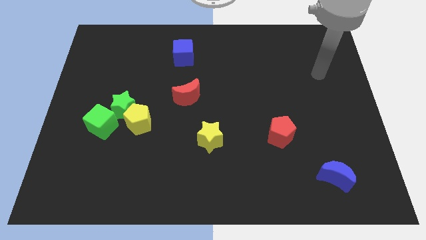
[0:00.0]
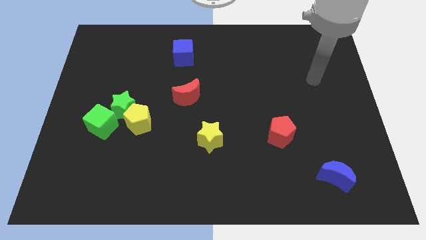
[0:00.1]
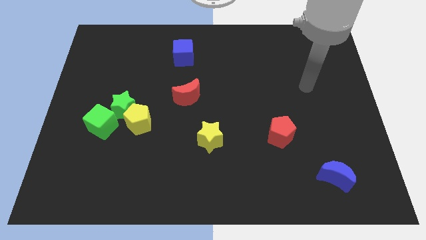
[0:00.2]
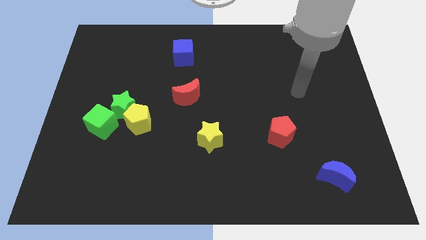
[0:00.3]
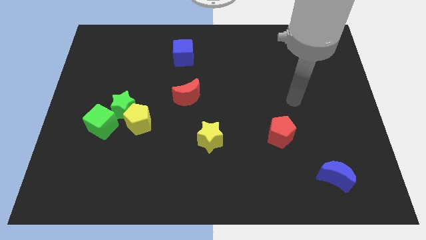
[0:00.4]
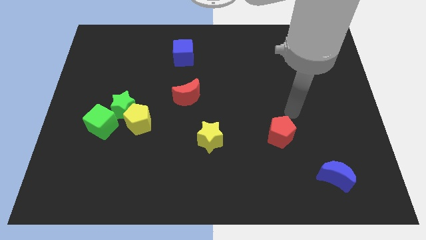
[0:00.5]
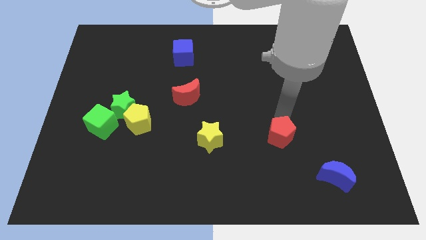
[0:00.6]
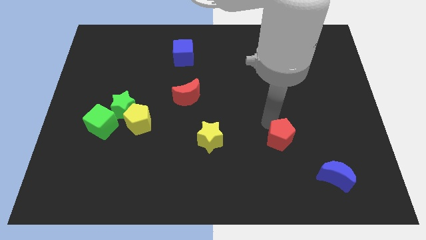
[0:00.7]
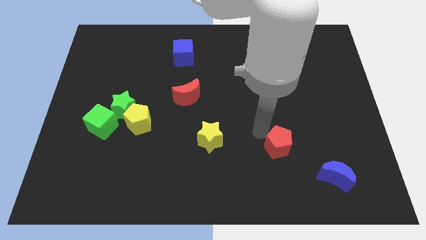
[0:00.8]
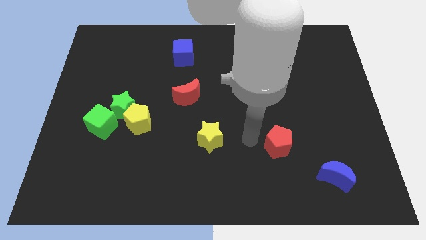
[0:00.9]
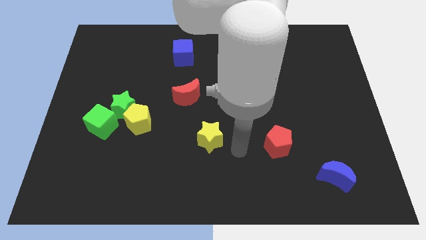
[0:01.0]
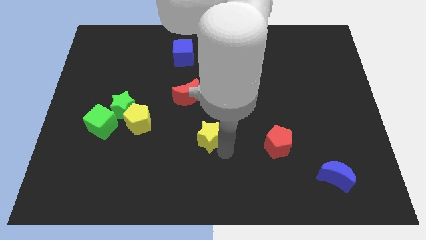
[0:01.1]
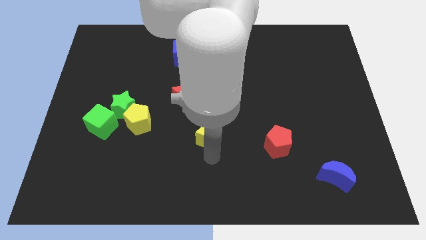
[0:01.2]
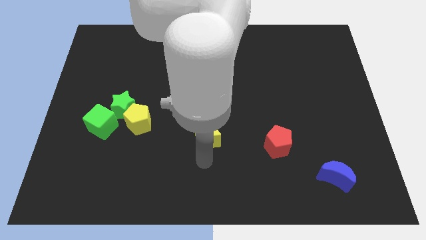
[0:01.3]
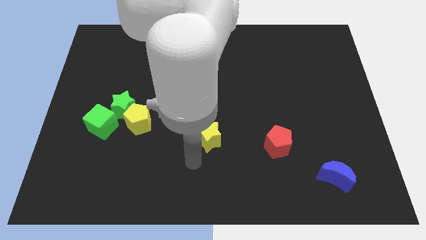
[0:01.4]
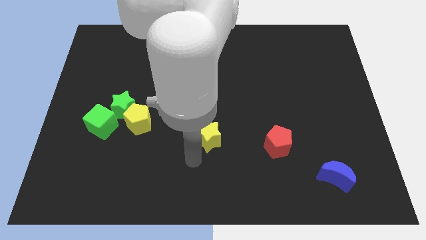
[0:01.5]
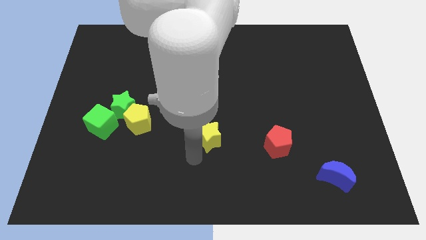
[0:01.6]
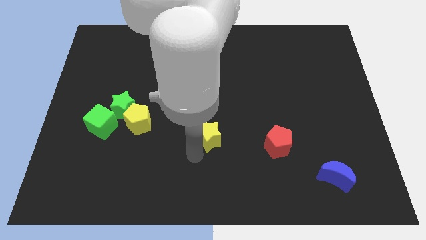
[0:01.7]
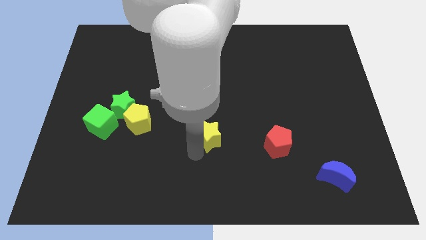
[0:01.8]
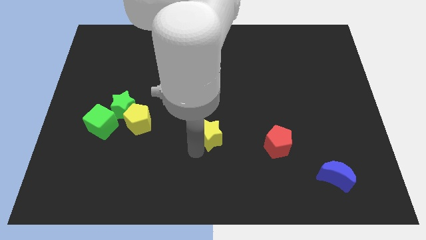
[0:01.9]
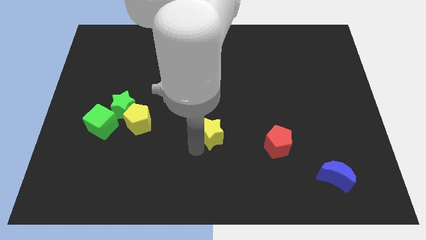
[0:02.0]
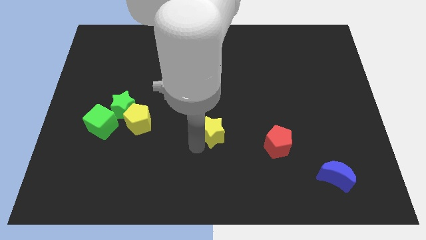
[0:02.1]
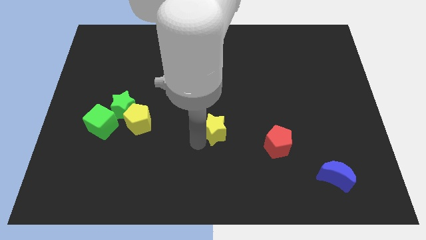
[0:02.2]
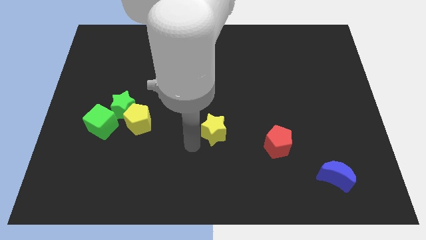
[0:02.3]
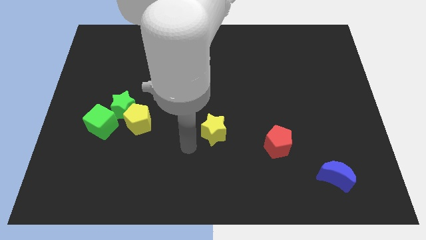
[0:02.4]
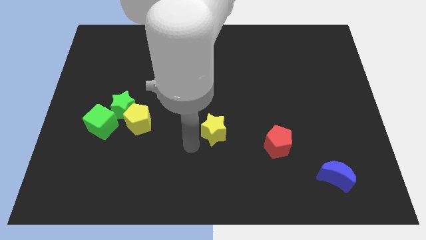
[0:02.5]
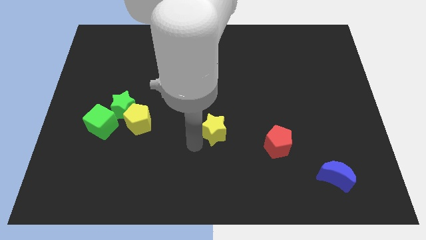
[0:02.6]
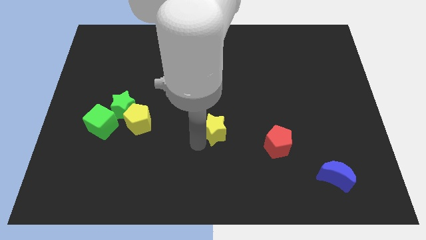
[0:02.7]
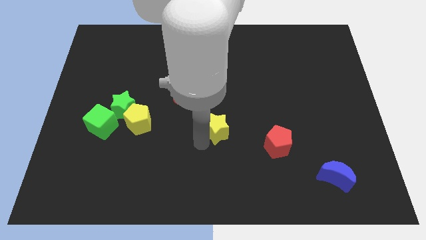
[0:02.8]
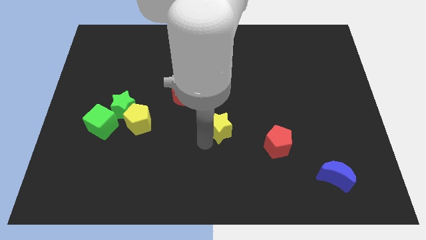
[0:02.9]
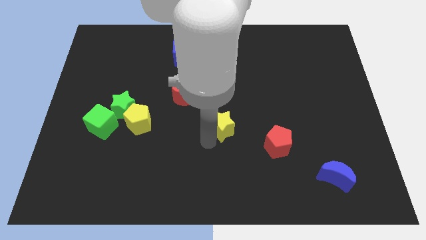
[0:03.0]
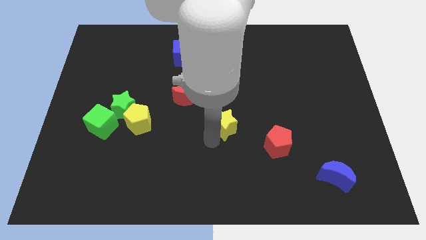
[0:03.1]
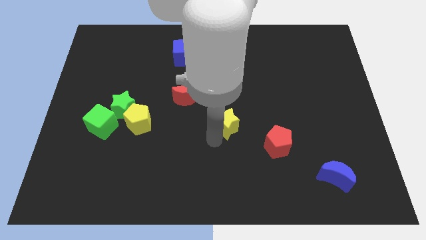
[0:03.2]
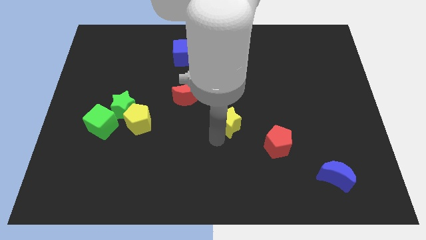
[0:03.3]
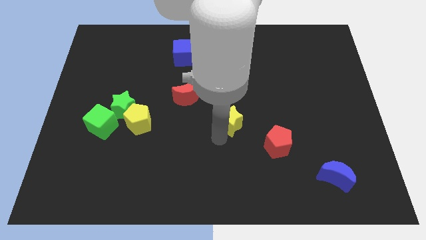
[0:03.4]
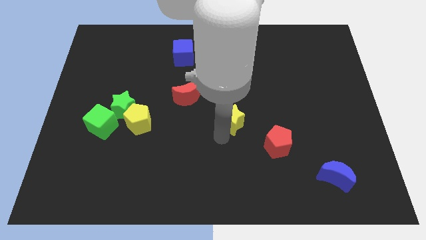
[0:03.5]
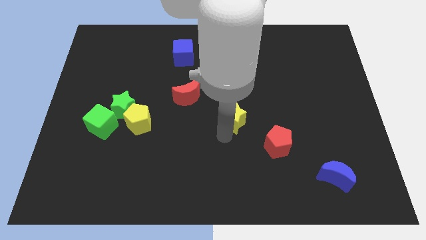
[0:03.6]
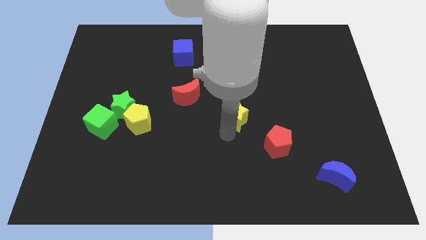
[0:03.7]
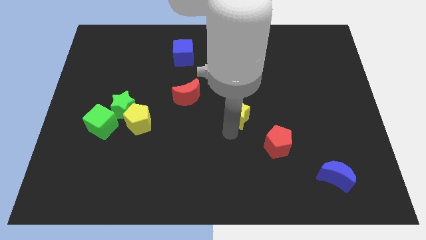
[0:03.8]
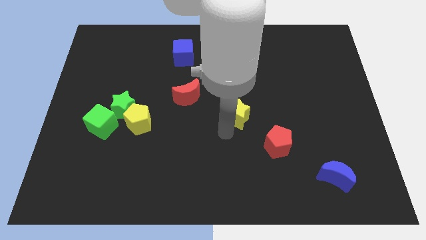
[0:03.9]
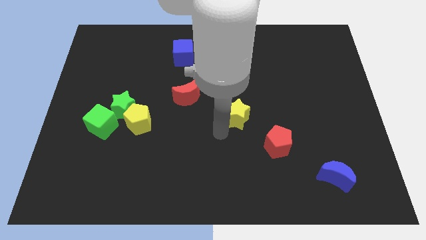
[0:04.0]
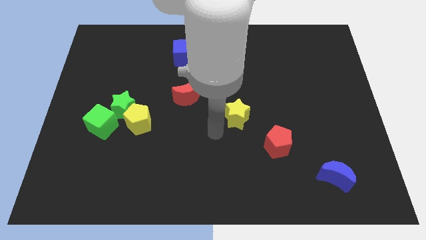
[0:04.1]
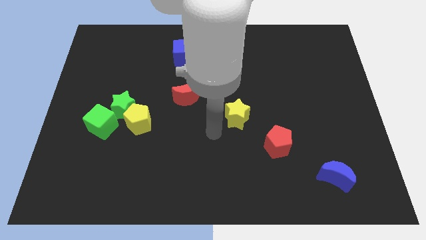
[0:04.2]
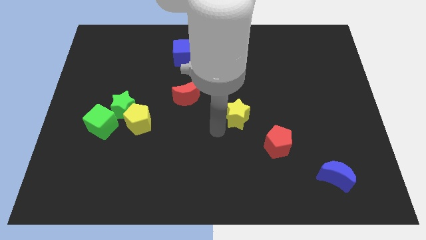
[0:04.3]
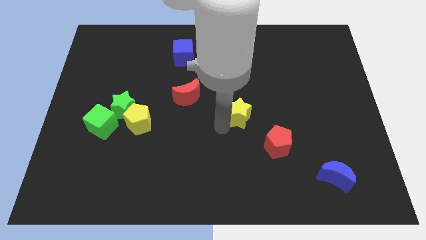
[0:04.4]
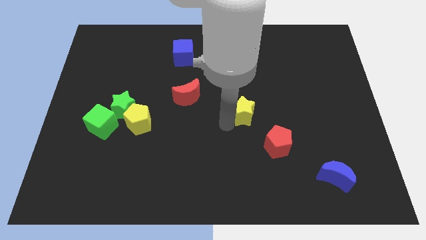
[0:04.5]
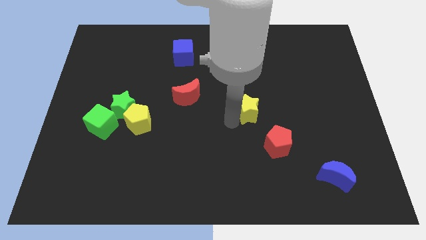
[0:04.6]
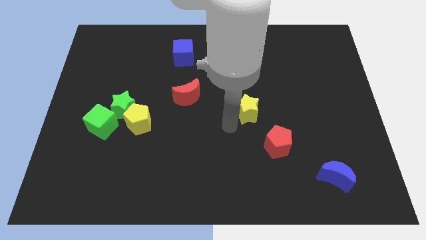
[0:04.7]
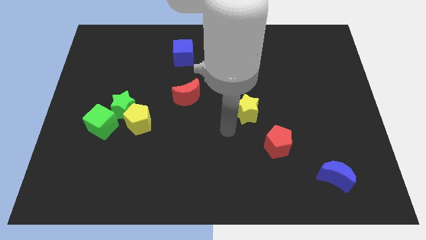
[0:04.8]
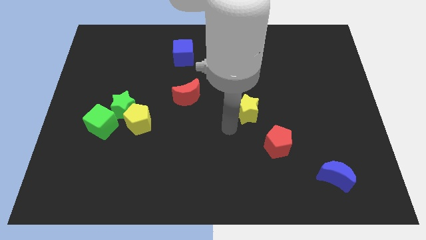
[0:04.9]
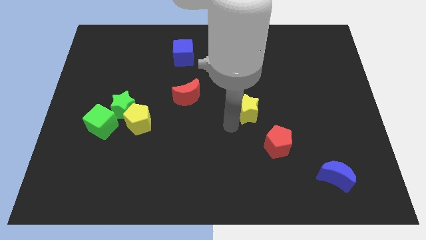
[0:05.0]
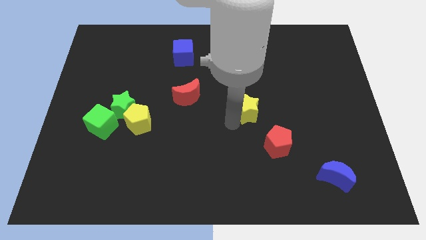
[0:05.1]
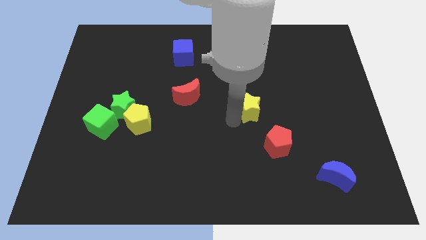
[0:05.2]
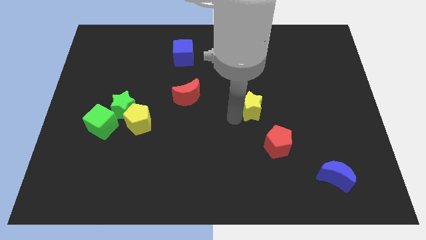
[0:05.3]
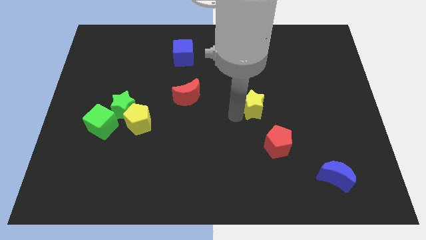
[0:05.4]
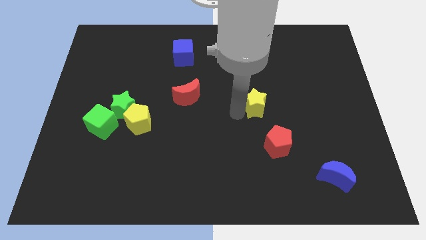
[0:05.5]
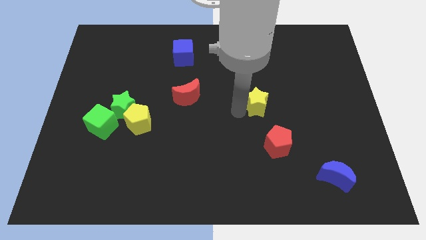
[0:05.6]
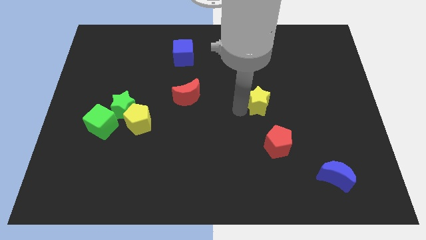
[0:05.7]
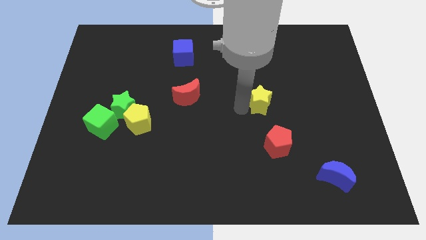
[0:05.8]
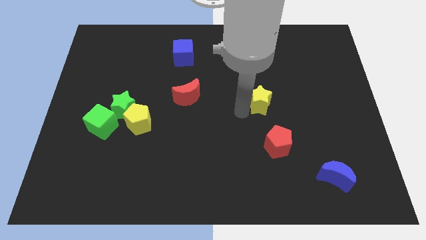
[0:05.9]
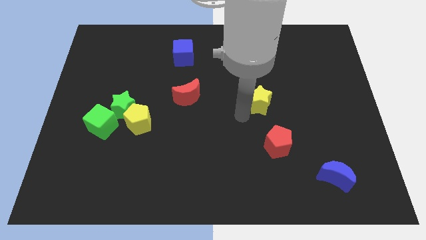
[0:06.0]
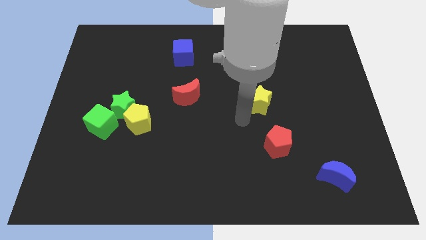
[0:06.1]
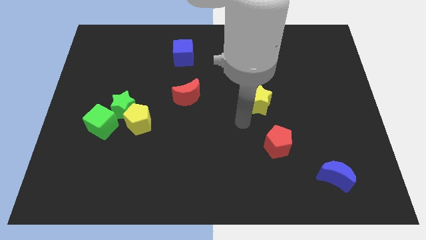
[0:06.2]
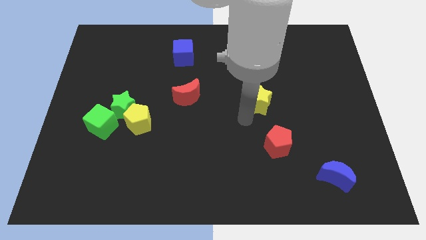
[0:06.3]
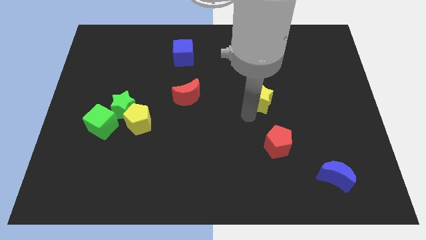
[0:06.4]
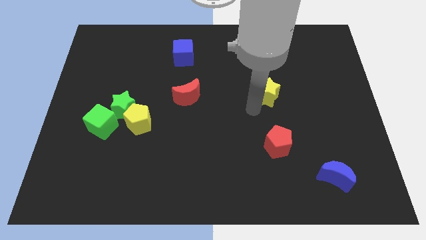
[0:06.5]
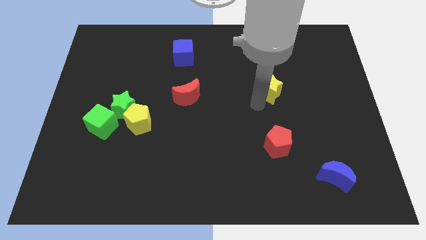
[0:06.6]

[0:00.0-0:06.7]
push the yellow star diagonally upwards and right

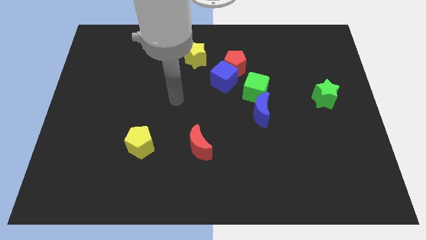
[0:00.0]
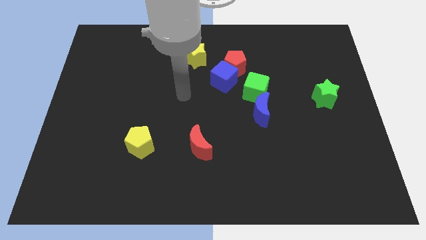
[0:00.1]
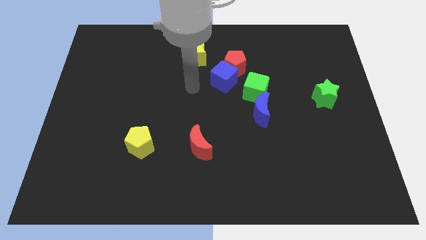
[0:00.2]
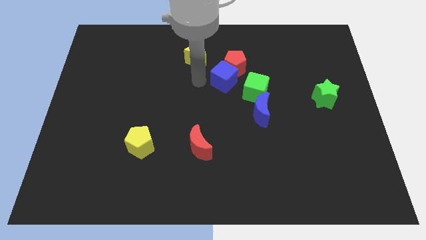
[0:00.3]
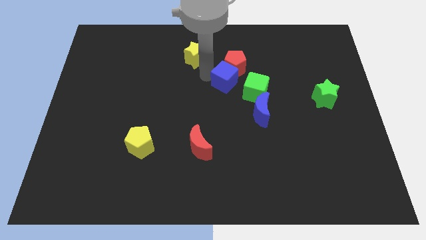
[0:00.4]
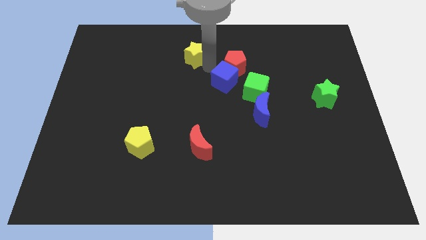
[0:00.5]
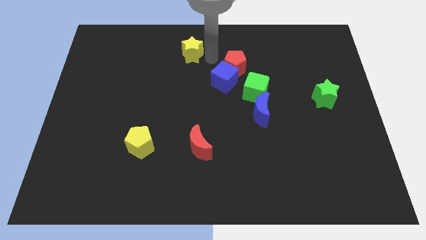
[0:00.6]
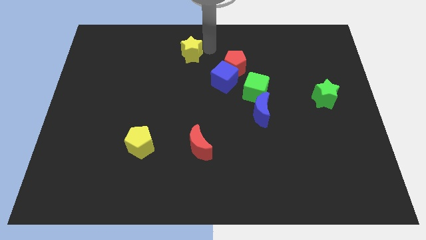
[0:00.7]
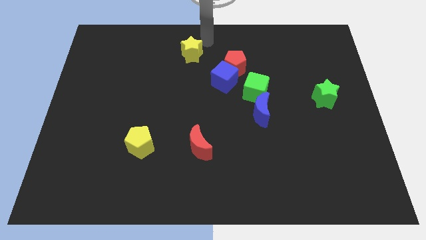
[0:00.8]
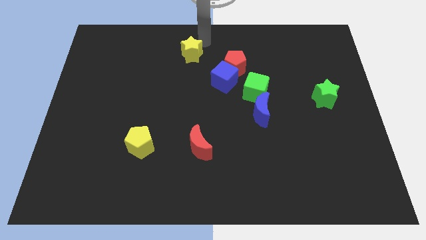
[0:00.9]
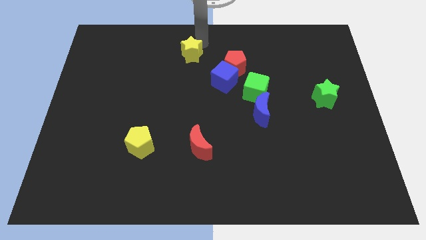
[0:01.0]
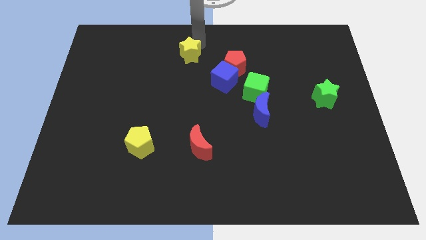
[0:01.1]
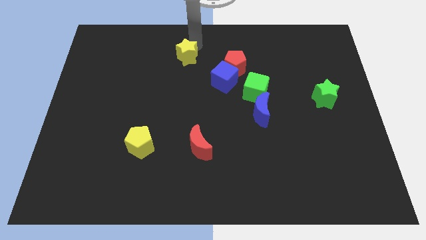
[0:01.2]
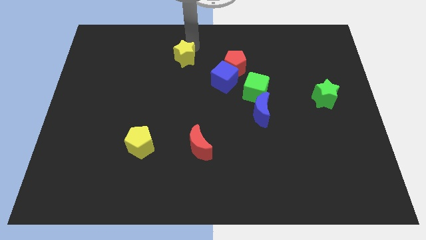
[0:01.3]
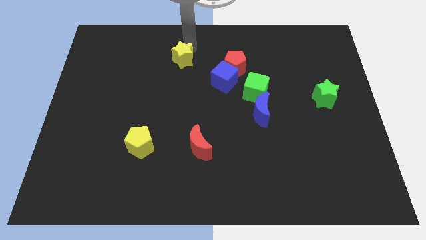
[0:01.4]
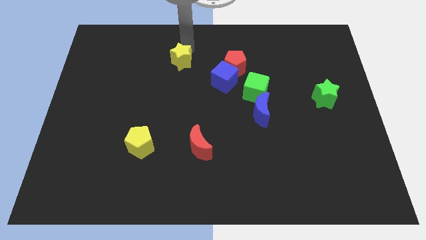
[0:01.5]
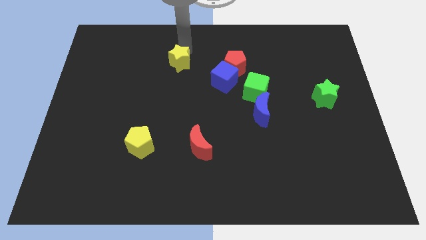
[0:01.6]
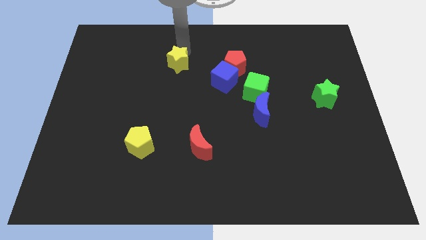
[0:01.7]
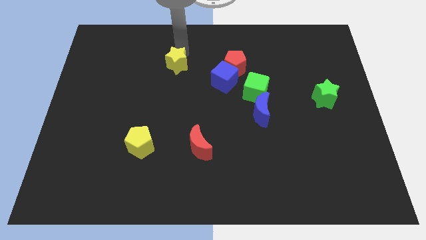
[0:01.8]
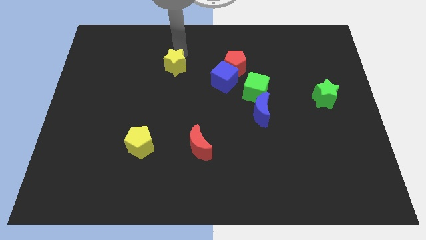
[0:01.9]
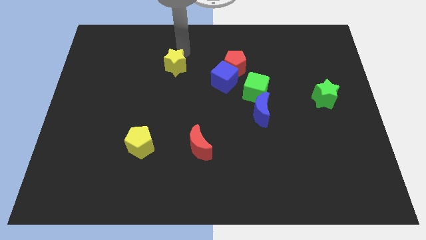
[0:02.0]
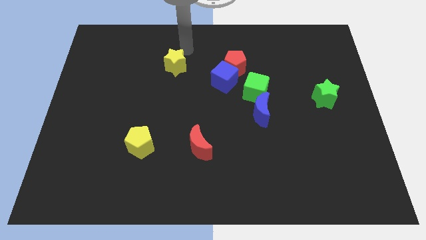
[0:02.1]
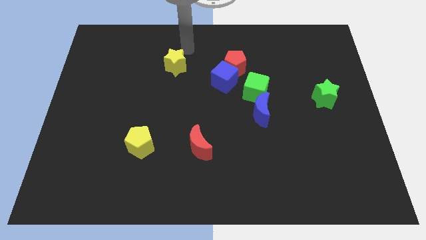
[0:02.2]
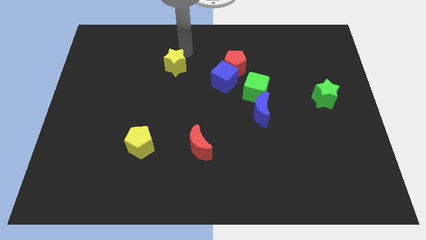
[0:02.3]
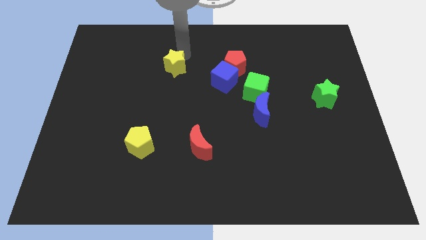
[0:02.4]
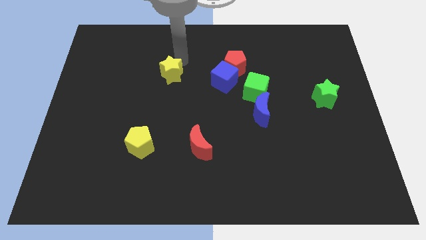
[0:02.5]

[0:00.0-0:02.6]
push the yellow star a little bit diagonally down and to the left
